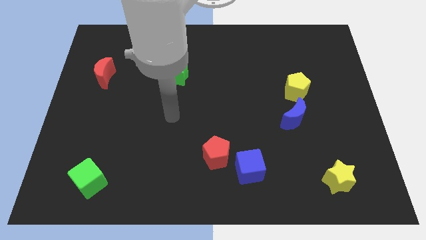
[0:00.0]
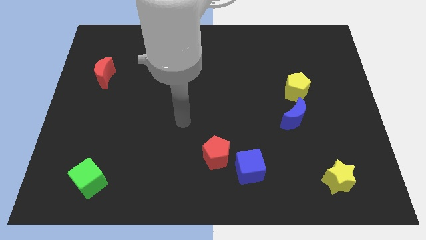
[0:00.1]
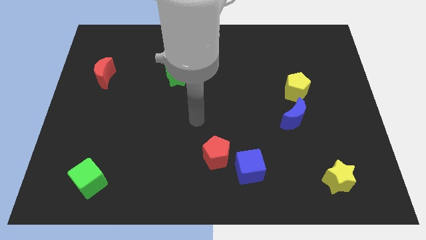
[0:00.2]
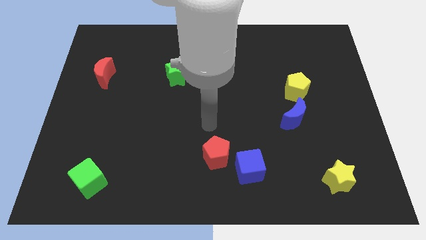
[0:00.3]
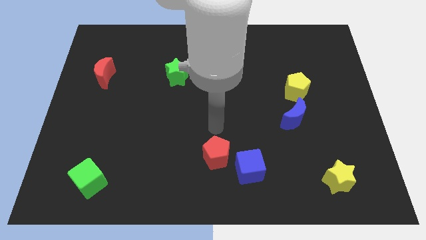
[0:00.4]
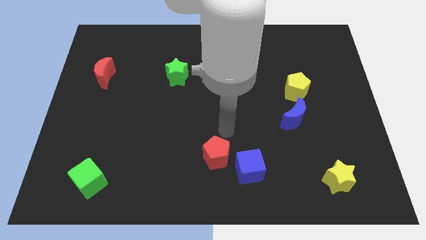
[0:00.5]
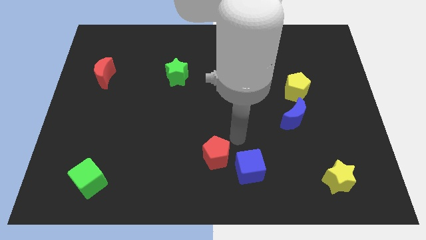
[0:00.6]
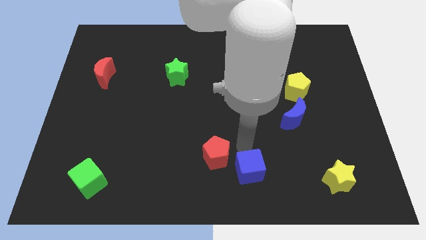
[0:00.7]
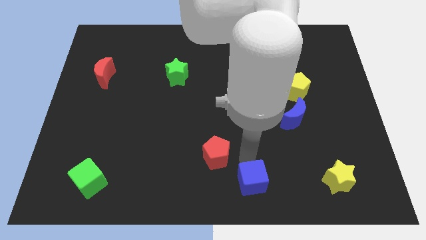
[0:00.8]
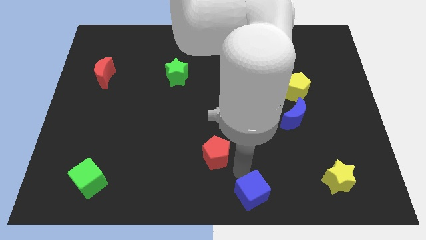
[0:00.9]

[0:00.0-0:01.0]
move the red pentagon away from the blue cube

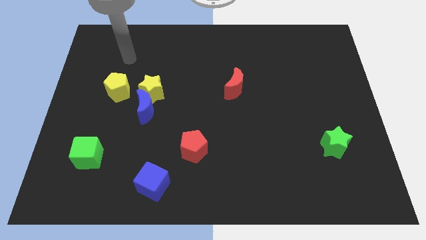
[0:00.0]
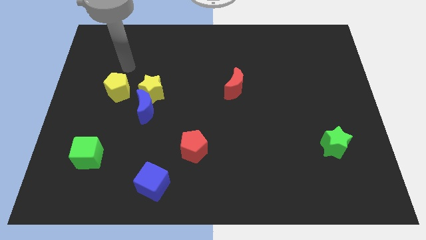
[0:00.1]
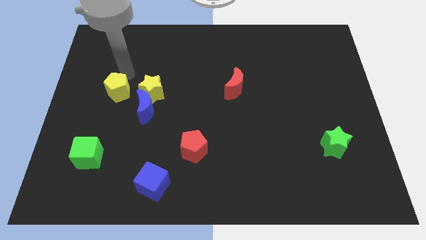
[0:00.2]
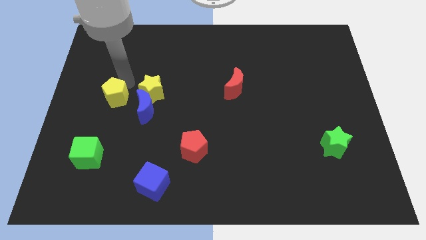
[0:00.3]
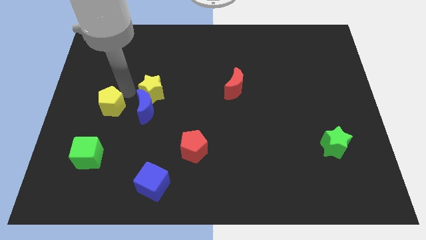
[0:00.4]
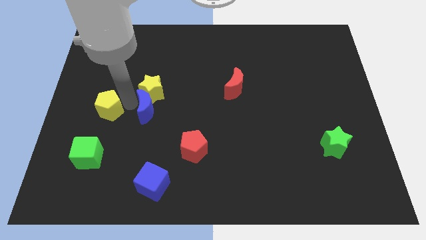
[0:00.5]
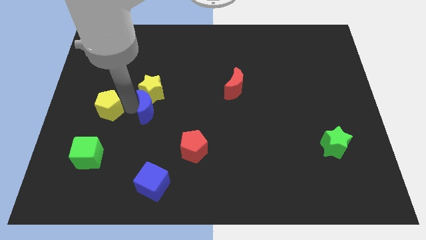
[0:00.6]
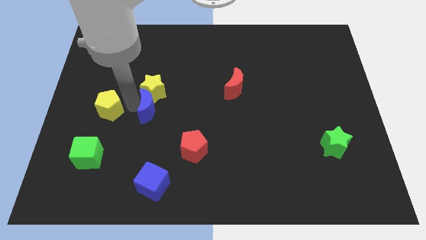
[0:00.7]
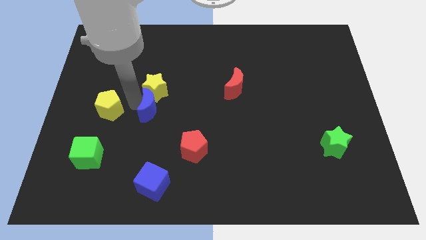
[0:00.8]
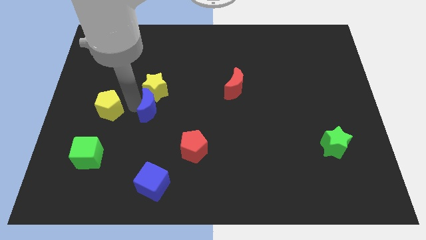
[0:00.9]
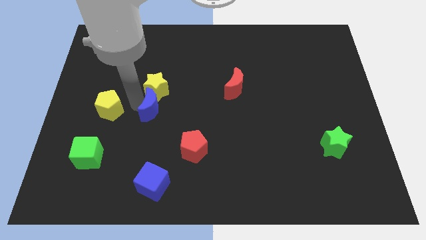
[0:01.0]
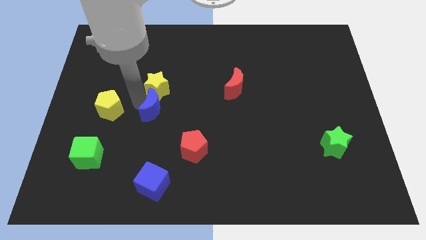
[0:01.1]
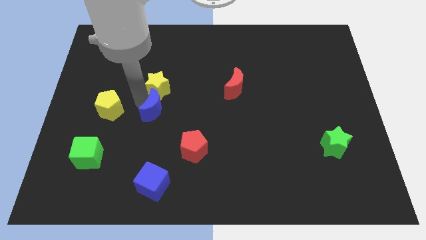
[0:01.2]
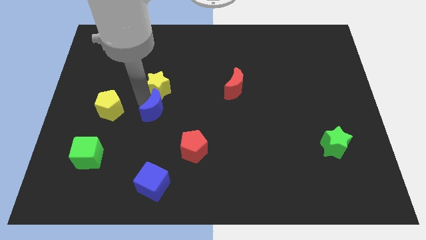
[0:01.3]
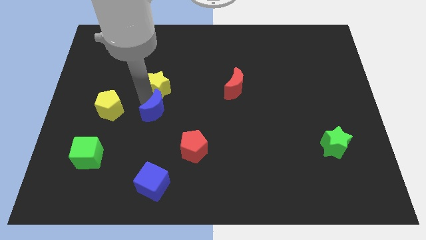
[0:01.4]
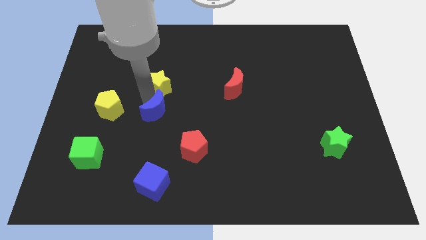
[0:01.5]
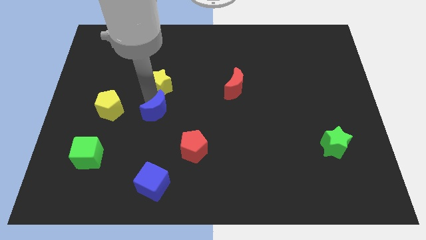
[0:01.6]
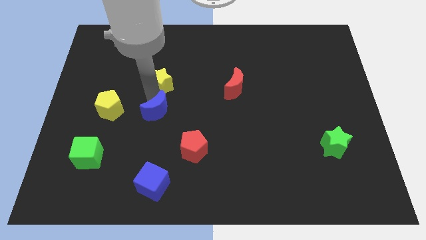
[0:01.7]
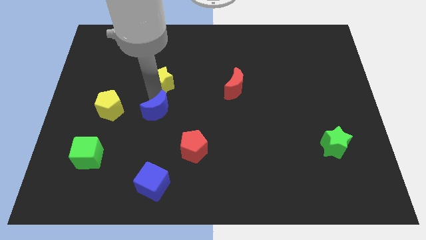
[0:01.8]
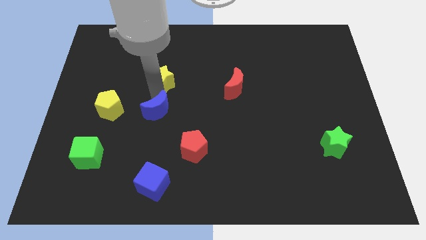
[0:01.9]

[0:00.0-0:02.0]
separate the yellow star from the blue moon and yellow pentagon

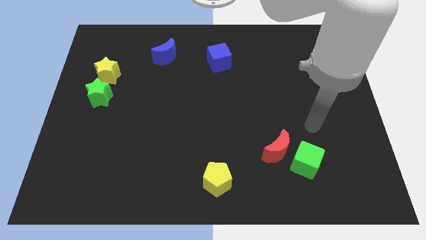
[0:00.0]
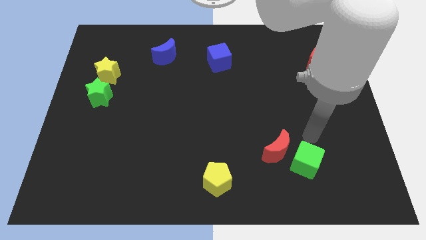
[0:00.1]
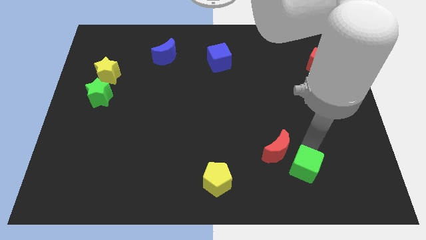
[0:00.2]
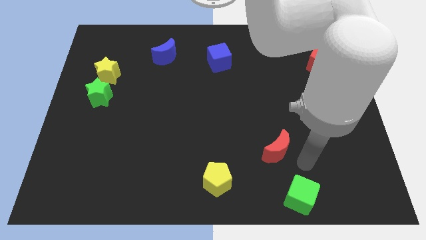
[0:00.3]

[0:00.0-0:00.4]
separate the red moon from the green cube

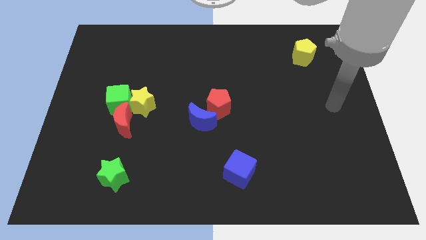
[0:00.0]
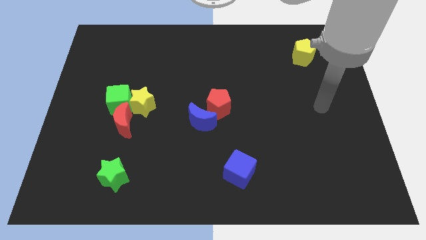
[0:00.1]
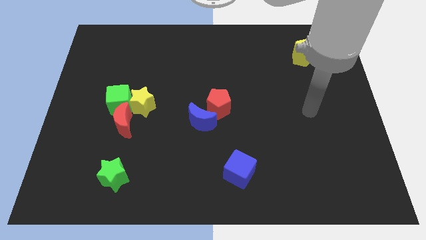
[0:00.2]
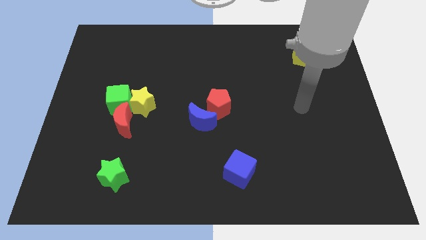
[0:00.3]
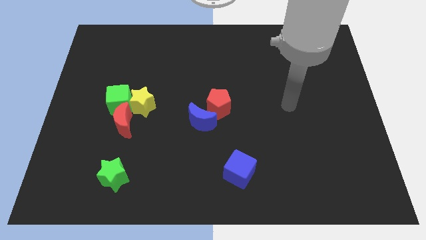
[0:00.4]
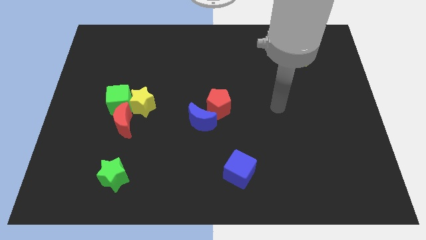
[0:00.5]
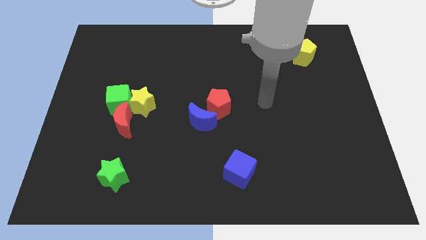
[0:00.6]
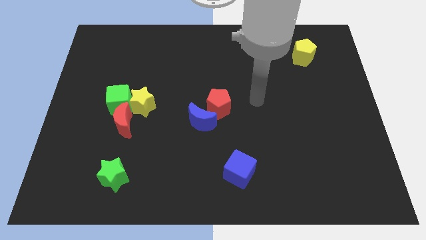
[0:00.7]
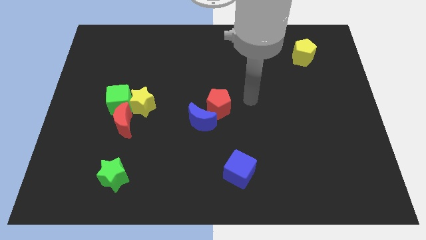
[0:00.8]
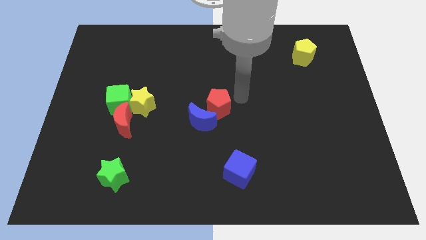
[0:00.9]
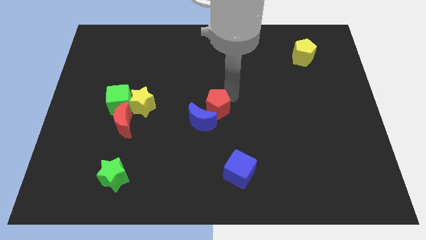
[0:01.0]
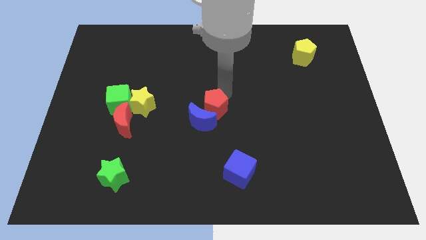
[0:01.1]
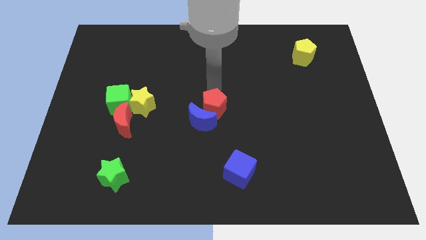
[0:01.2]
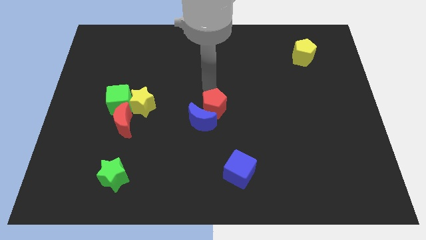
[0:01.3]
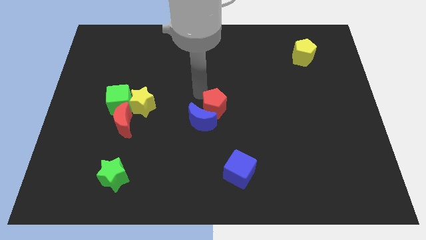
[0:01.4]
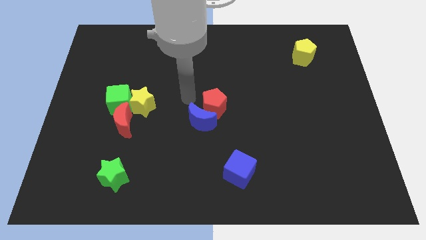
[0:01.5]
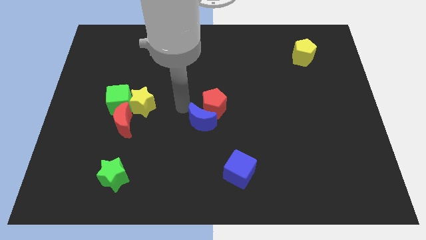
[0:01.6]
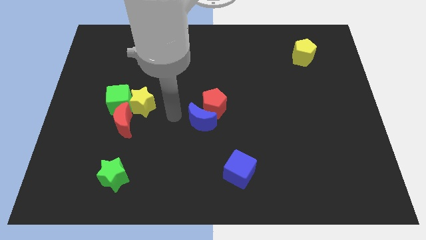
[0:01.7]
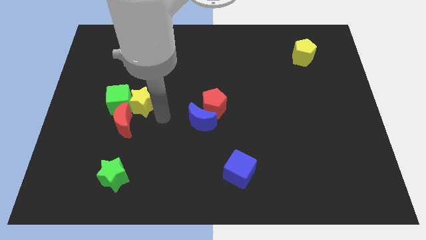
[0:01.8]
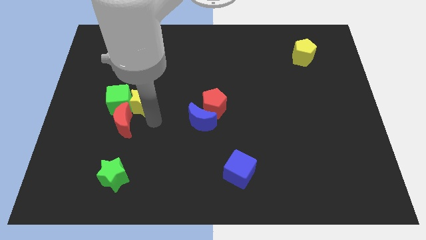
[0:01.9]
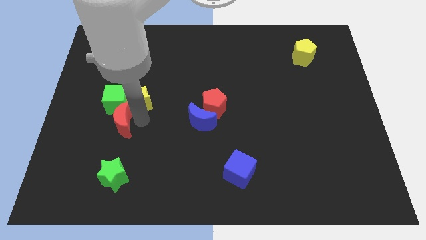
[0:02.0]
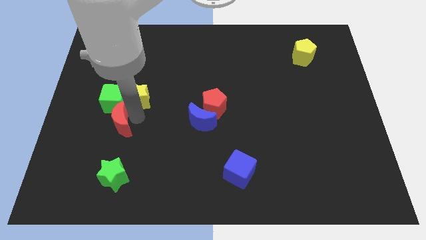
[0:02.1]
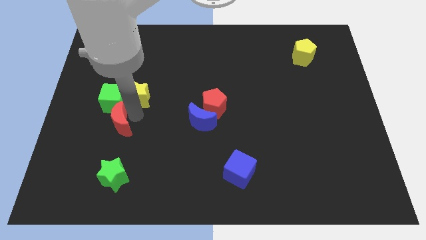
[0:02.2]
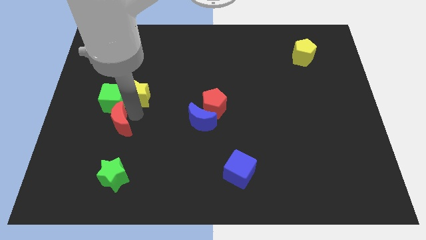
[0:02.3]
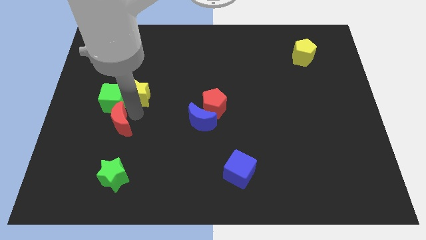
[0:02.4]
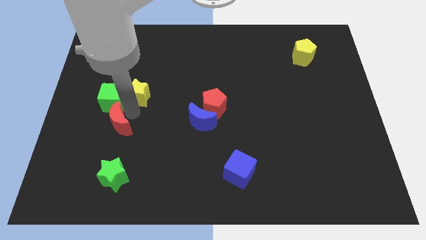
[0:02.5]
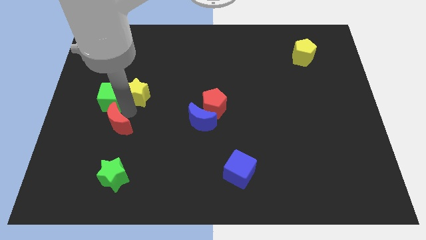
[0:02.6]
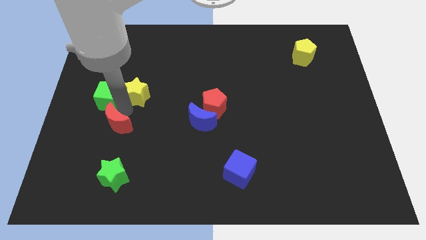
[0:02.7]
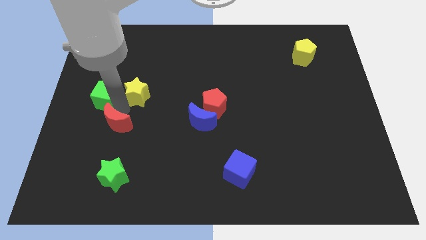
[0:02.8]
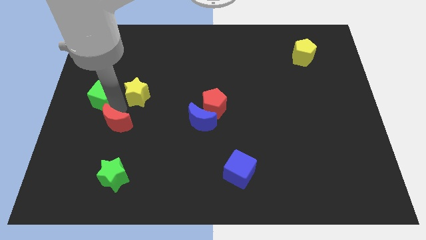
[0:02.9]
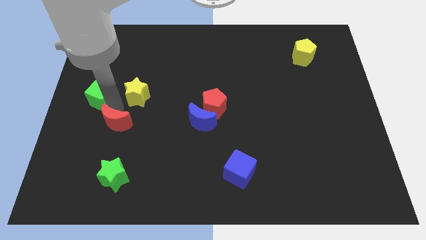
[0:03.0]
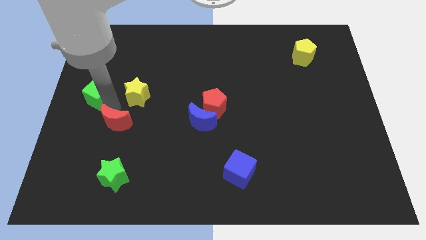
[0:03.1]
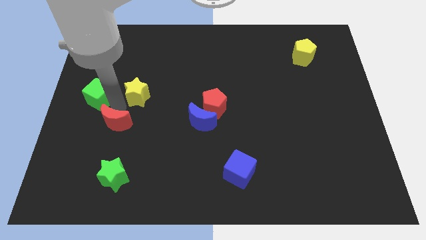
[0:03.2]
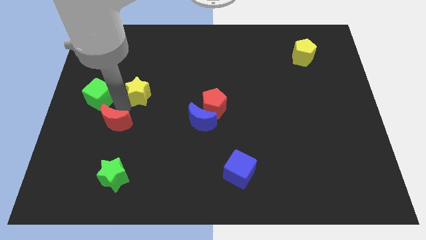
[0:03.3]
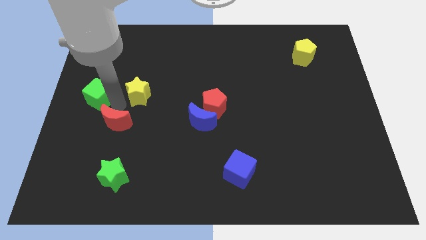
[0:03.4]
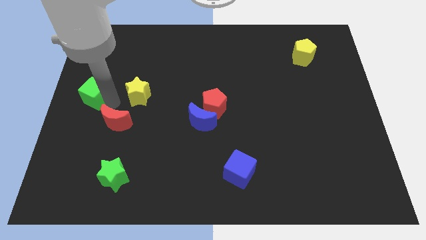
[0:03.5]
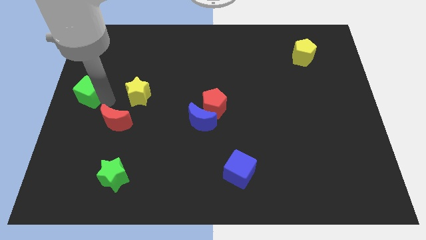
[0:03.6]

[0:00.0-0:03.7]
pull the green cube apart from the yellow star and red moon

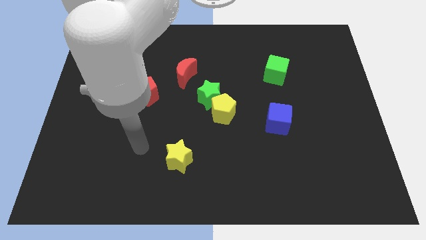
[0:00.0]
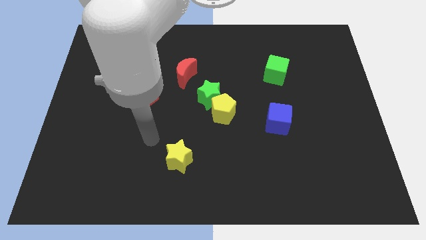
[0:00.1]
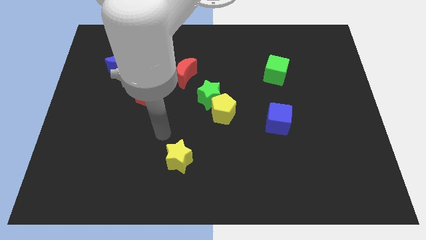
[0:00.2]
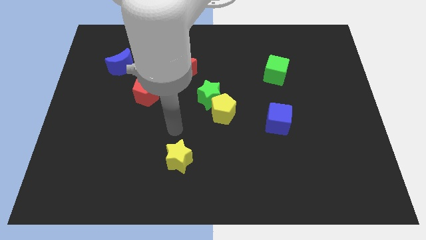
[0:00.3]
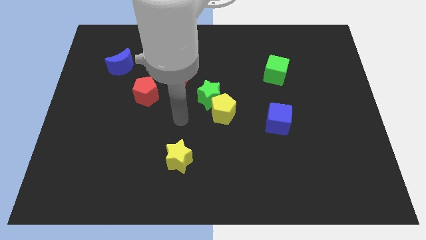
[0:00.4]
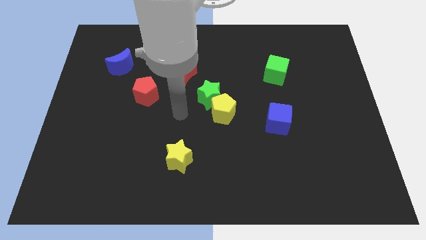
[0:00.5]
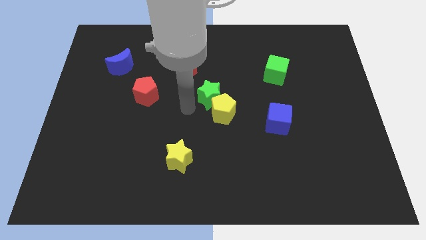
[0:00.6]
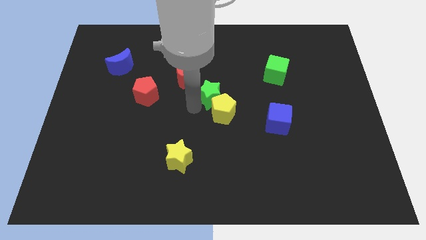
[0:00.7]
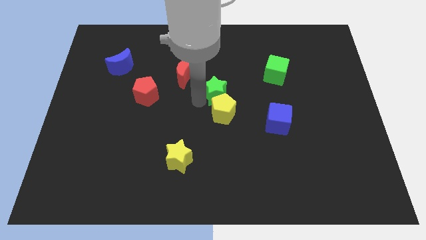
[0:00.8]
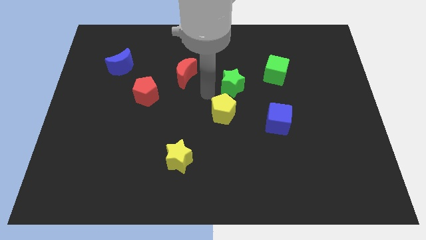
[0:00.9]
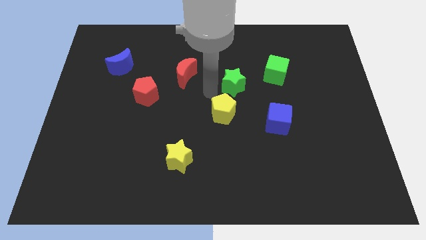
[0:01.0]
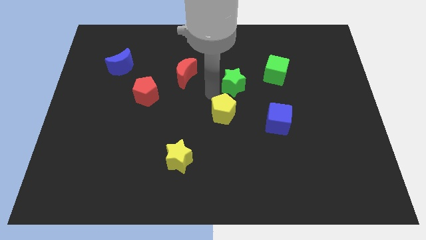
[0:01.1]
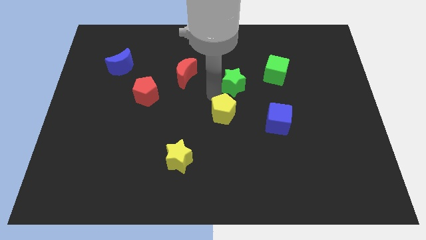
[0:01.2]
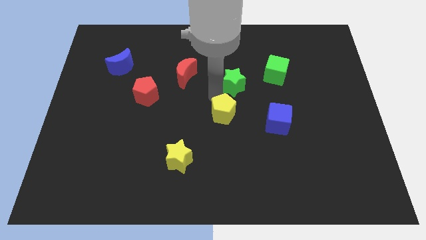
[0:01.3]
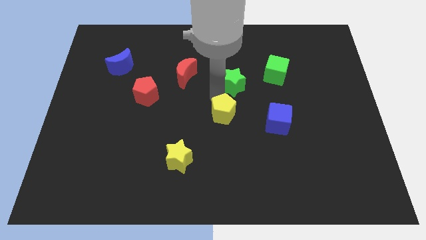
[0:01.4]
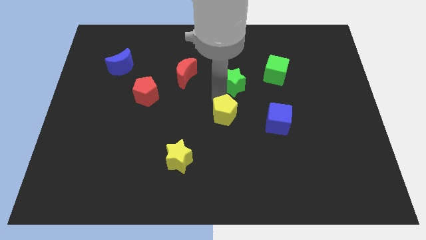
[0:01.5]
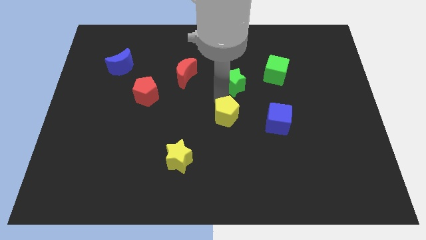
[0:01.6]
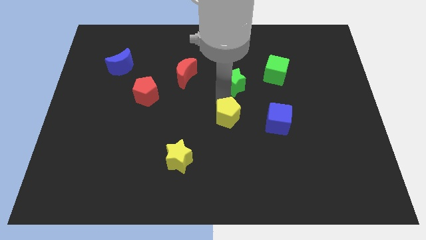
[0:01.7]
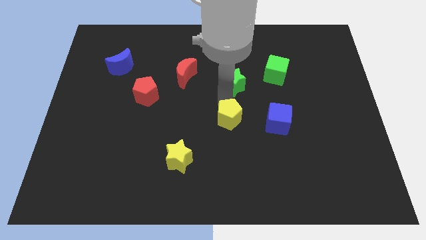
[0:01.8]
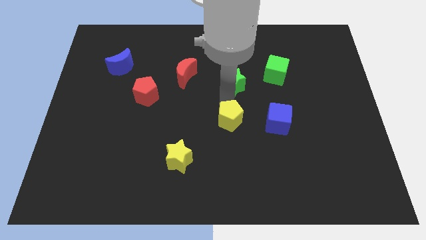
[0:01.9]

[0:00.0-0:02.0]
separate the yellow pentagon from the green star

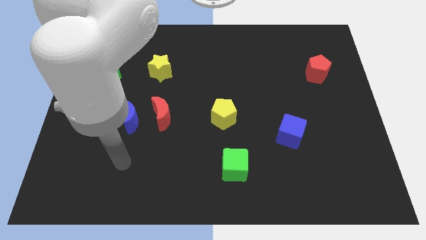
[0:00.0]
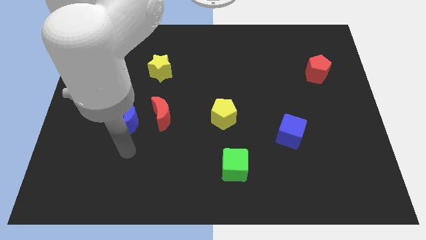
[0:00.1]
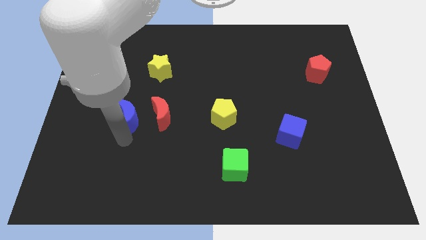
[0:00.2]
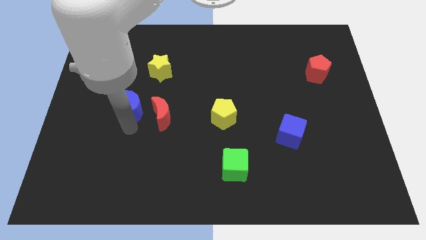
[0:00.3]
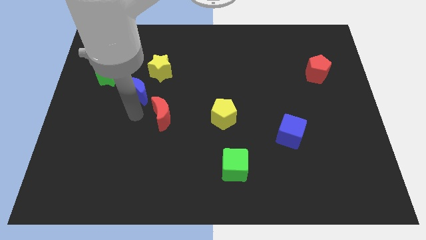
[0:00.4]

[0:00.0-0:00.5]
pull the red moon apart from the blue moon
